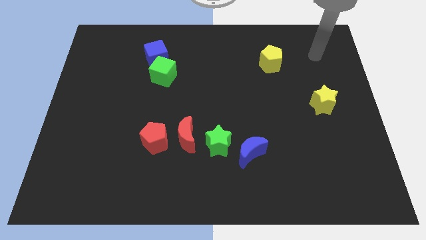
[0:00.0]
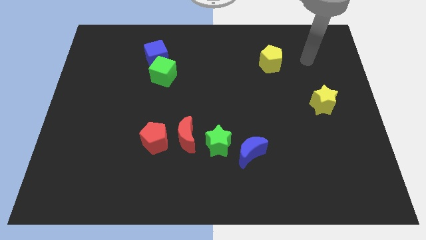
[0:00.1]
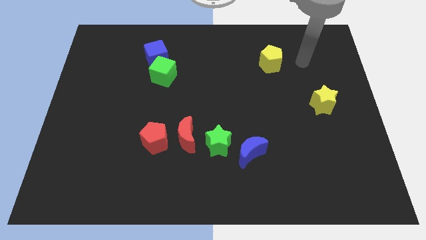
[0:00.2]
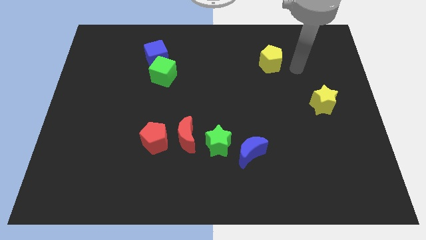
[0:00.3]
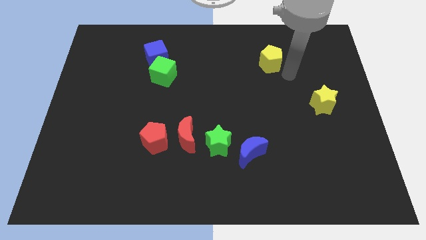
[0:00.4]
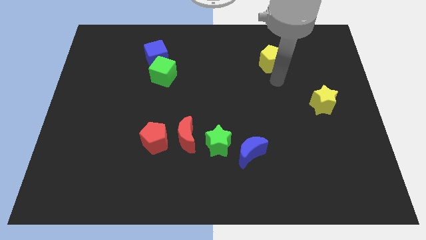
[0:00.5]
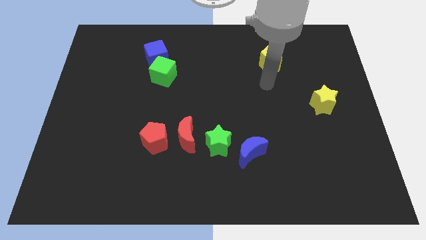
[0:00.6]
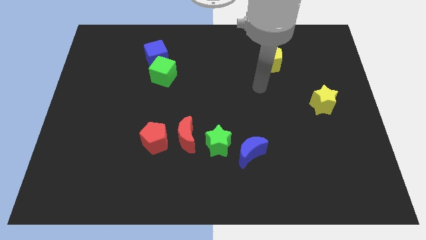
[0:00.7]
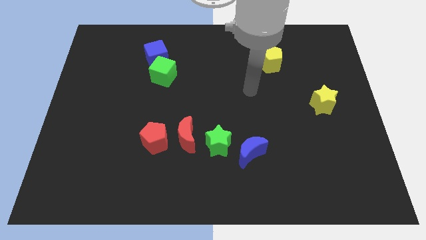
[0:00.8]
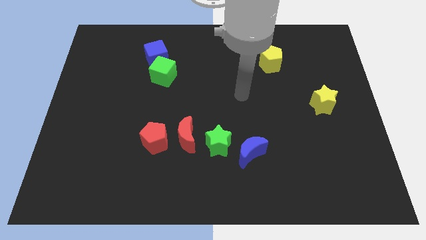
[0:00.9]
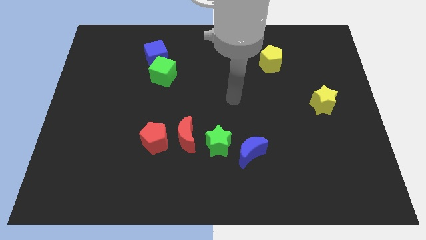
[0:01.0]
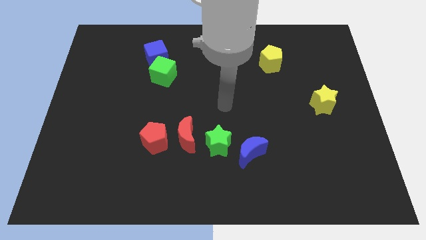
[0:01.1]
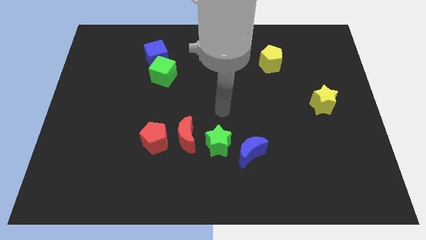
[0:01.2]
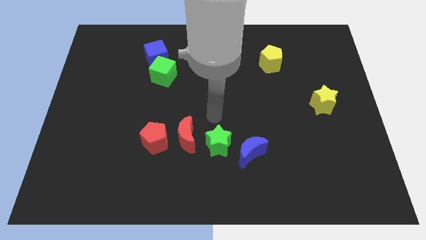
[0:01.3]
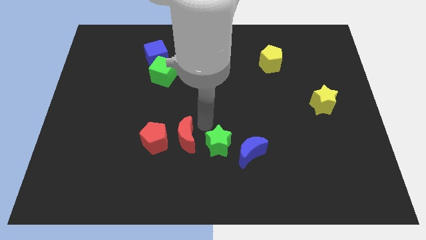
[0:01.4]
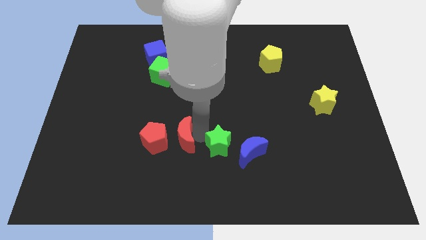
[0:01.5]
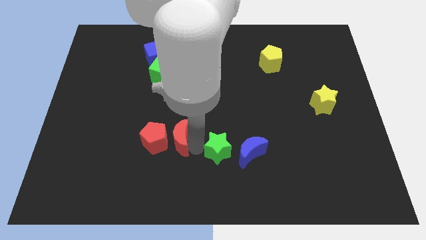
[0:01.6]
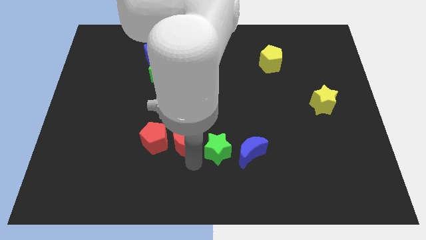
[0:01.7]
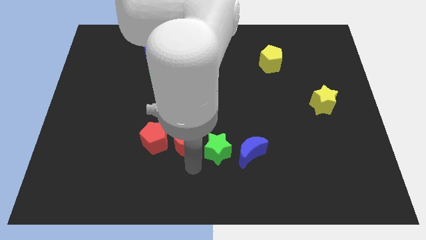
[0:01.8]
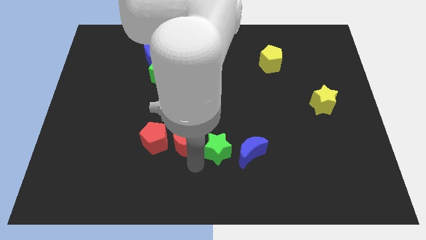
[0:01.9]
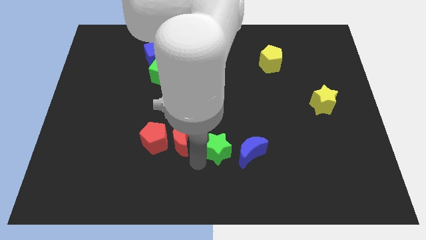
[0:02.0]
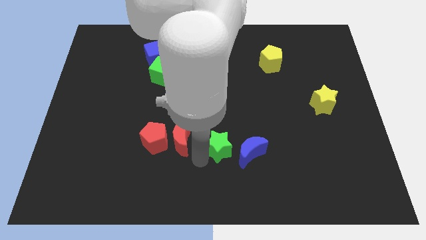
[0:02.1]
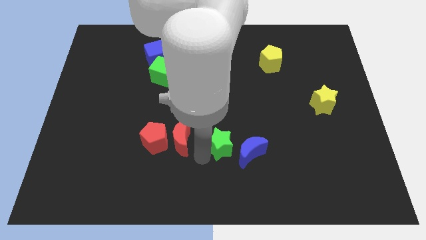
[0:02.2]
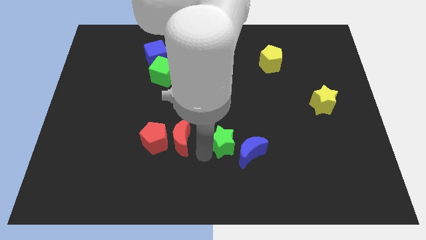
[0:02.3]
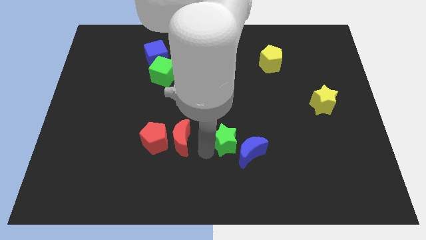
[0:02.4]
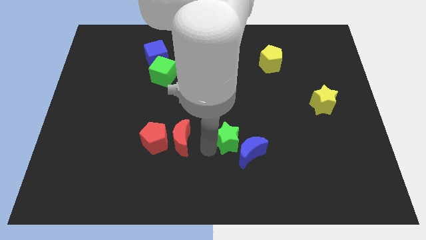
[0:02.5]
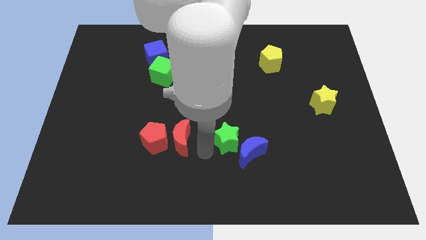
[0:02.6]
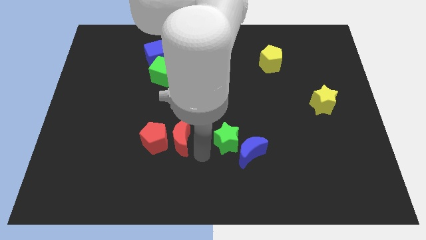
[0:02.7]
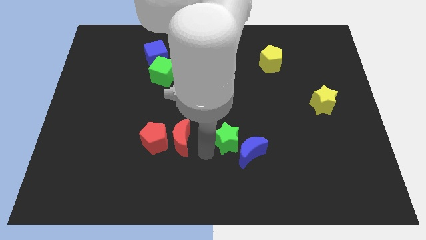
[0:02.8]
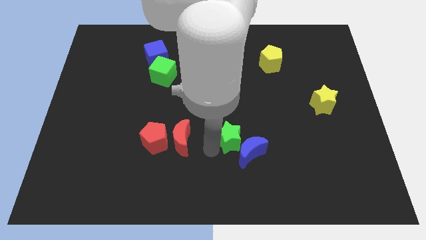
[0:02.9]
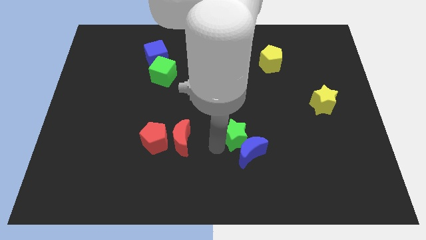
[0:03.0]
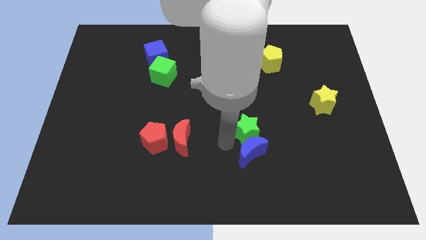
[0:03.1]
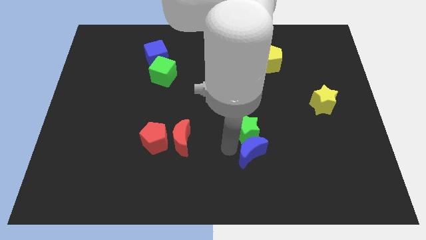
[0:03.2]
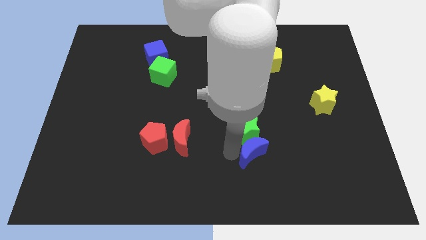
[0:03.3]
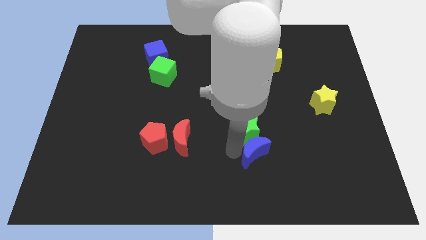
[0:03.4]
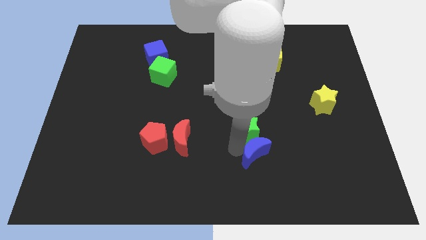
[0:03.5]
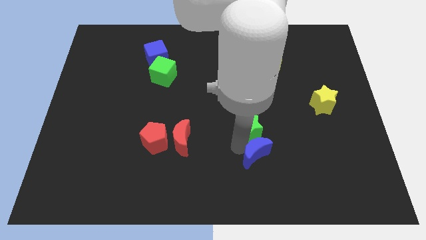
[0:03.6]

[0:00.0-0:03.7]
slide the green star up and then to the right a bit

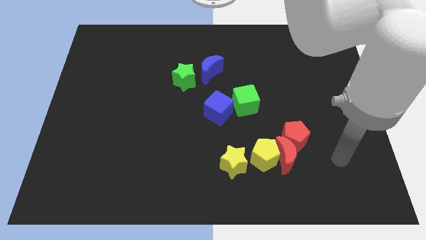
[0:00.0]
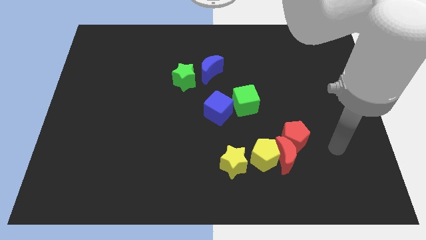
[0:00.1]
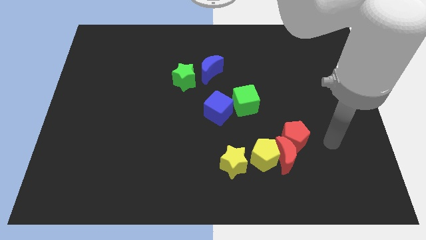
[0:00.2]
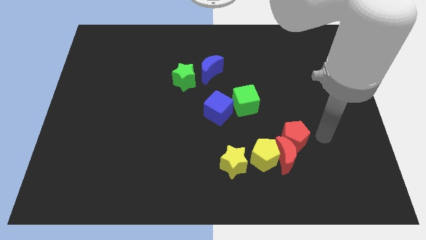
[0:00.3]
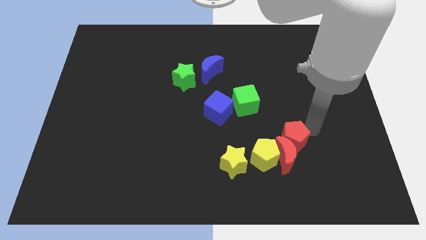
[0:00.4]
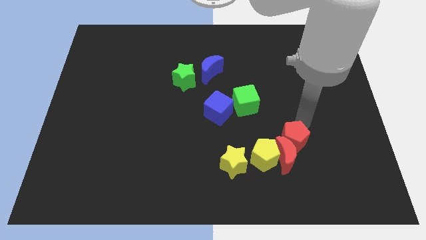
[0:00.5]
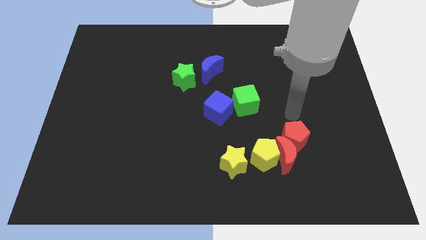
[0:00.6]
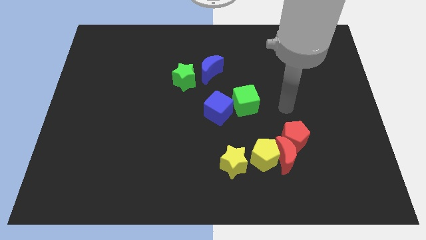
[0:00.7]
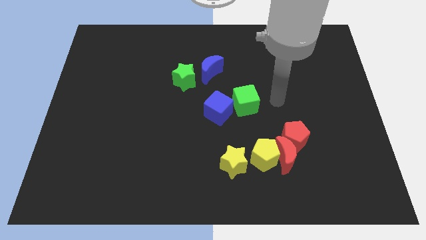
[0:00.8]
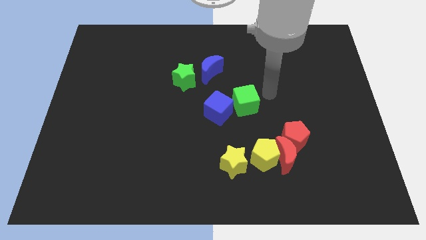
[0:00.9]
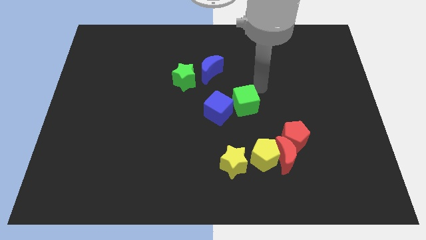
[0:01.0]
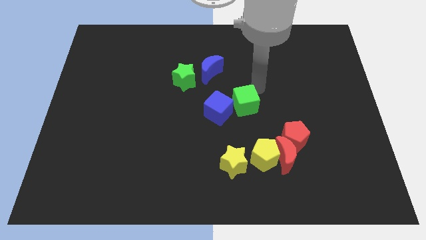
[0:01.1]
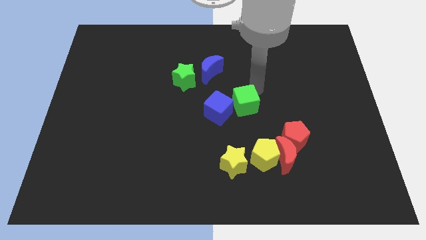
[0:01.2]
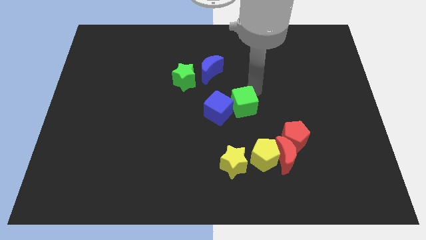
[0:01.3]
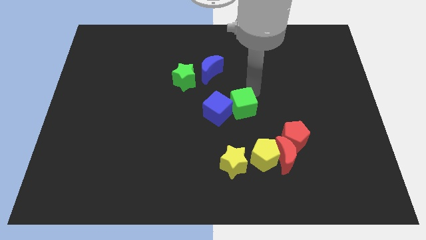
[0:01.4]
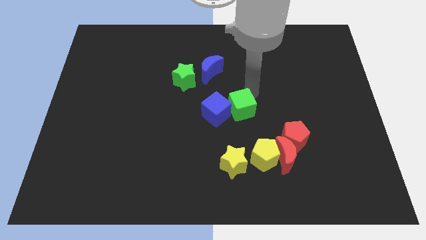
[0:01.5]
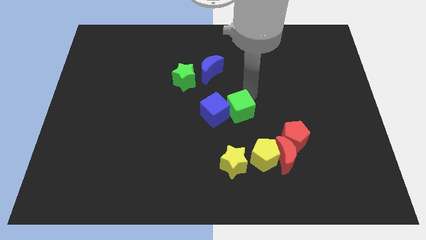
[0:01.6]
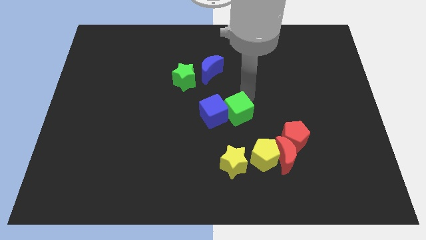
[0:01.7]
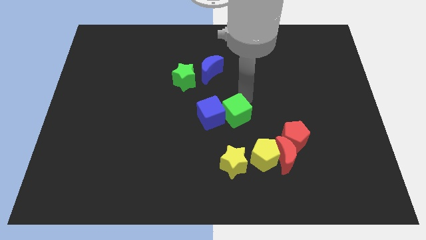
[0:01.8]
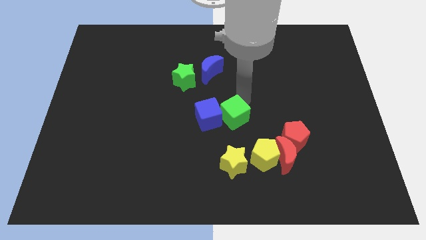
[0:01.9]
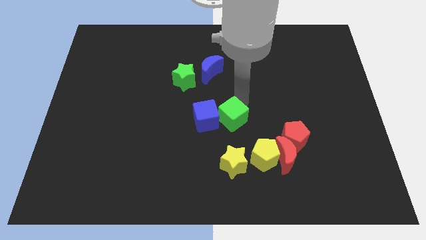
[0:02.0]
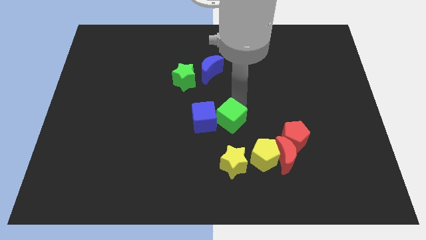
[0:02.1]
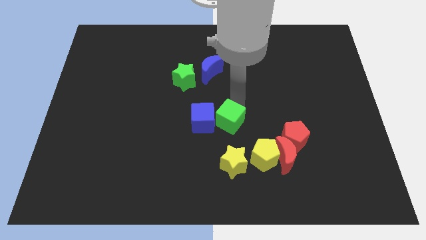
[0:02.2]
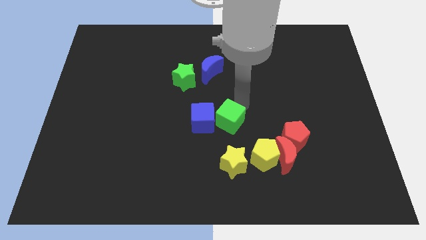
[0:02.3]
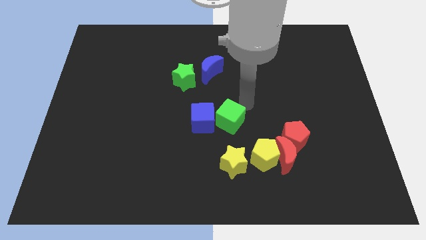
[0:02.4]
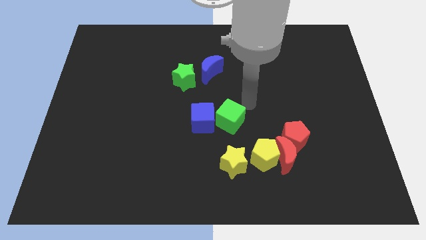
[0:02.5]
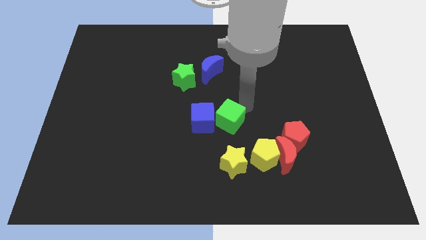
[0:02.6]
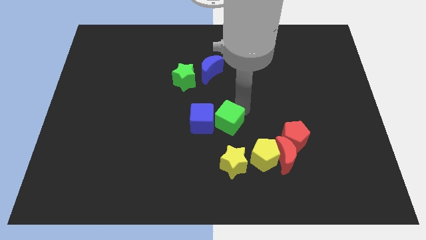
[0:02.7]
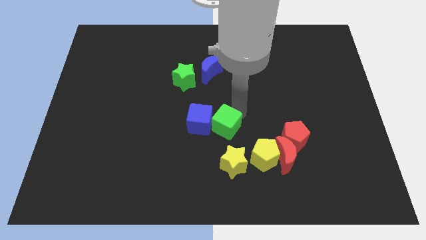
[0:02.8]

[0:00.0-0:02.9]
slightly slide the green cube down and to the left diagonally

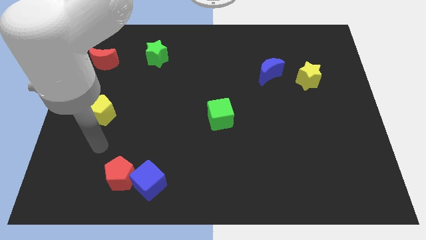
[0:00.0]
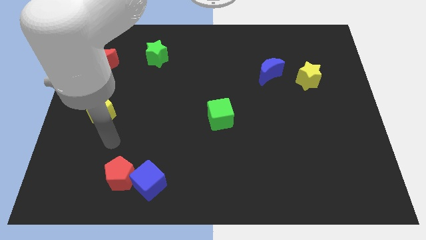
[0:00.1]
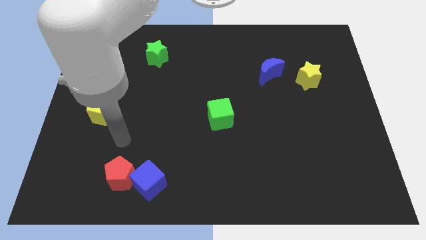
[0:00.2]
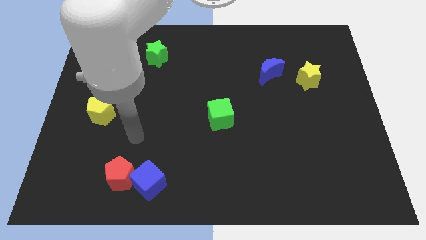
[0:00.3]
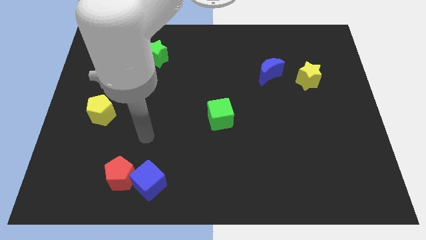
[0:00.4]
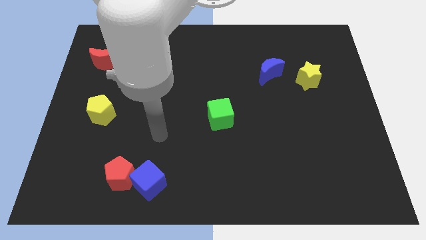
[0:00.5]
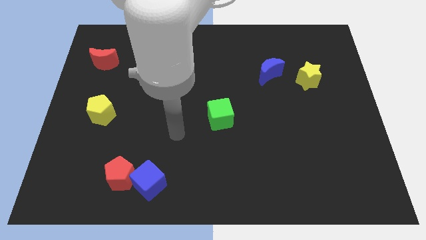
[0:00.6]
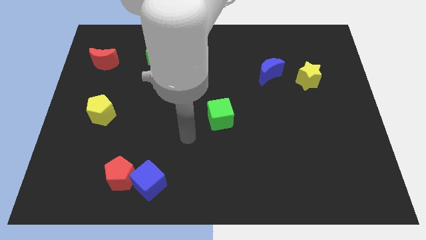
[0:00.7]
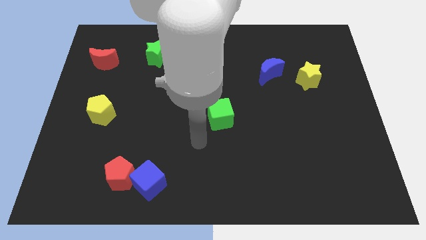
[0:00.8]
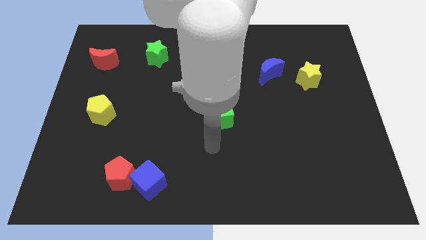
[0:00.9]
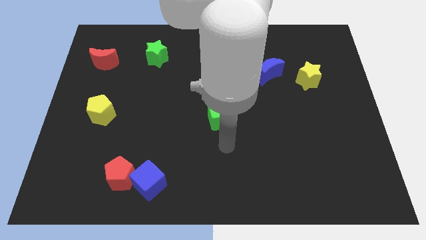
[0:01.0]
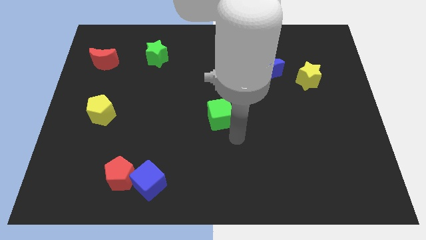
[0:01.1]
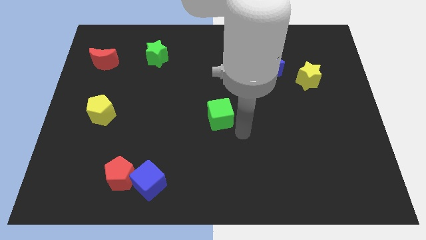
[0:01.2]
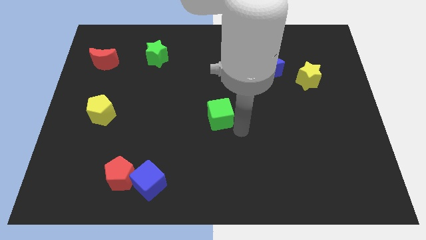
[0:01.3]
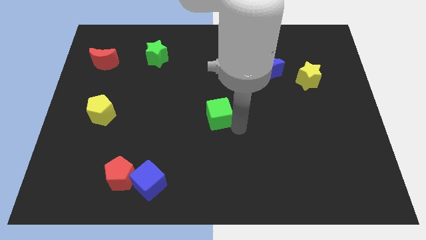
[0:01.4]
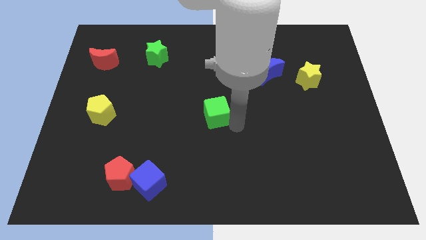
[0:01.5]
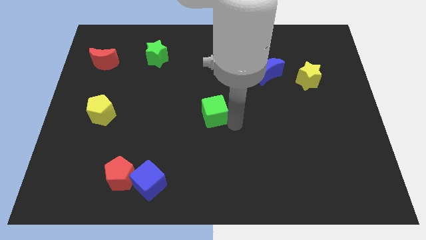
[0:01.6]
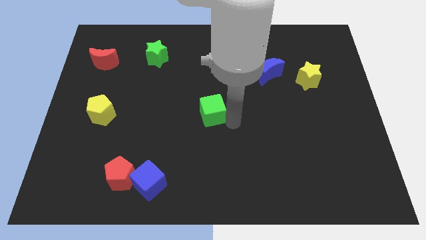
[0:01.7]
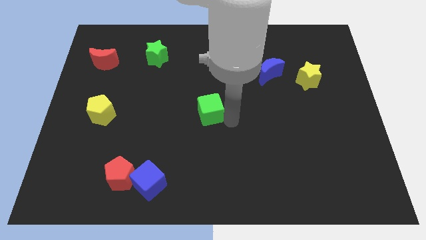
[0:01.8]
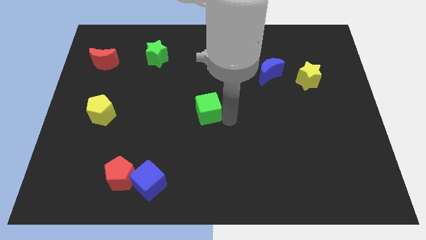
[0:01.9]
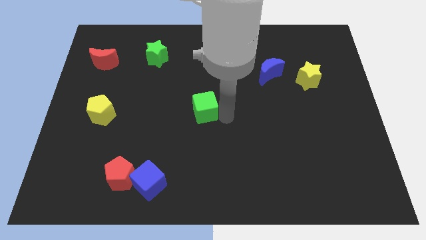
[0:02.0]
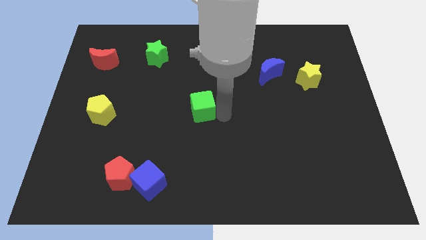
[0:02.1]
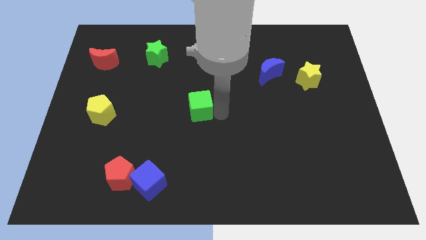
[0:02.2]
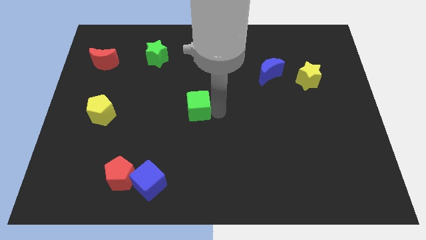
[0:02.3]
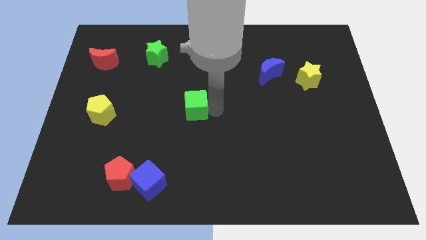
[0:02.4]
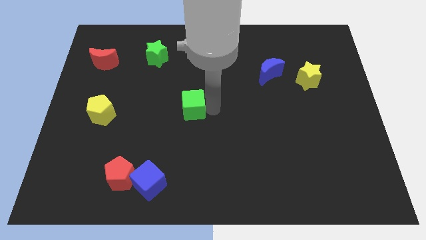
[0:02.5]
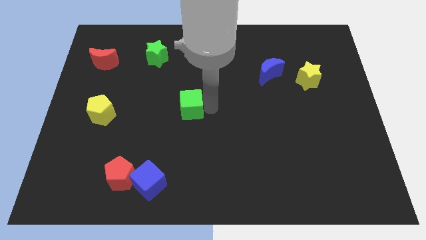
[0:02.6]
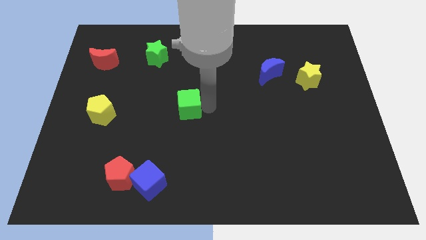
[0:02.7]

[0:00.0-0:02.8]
slightly move the green cube diagonally upwards and left
